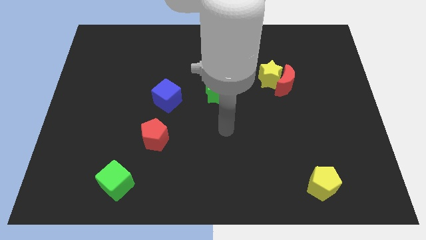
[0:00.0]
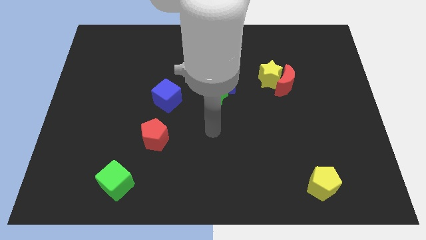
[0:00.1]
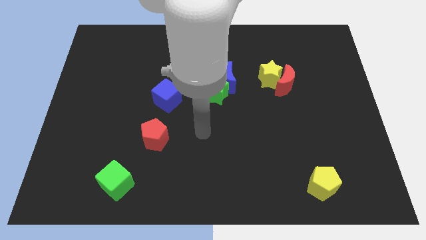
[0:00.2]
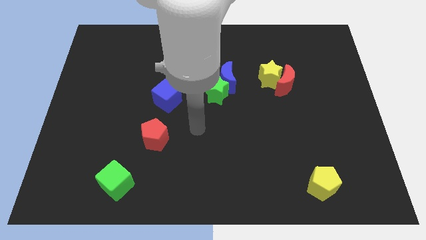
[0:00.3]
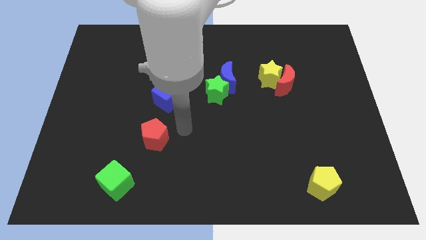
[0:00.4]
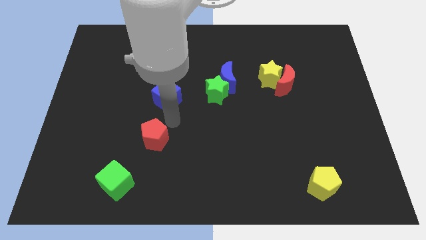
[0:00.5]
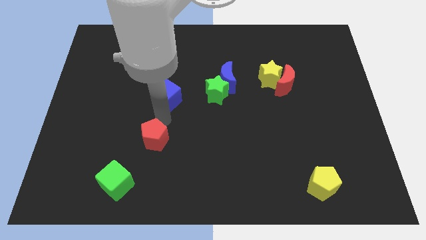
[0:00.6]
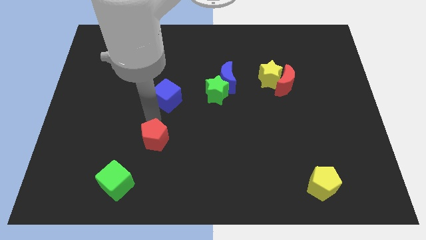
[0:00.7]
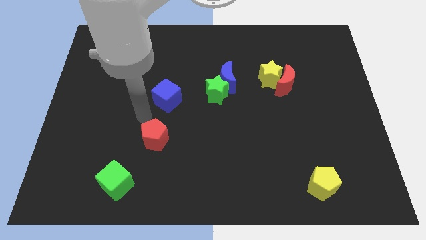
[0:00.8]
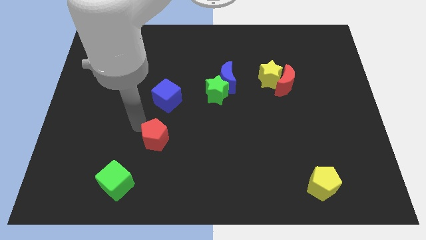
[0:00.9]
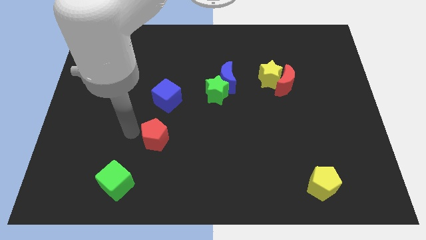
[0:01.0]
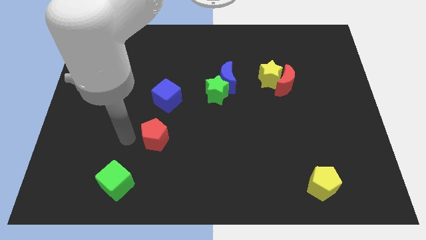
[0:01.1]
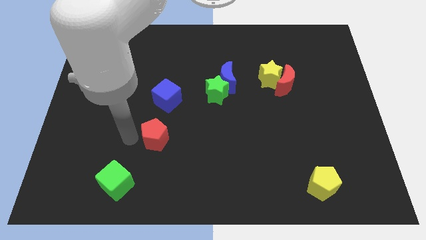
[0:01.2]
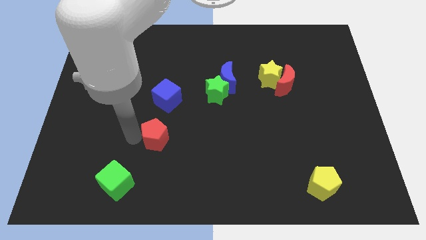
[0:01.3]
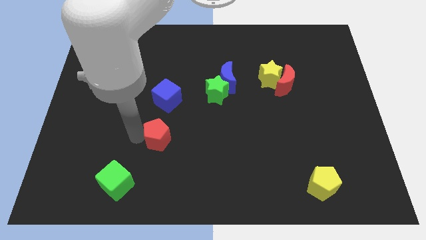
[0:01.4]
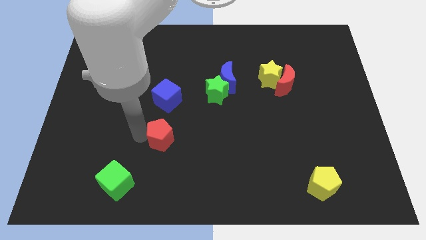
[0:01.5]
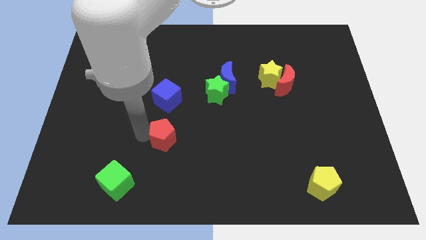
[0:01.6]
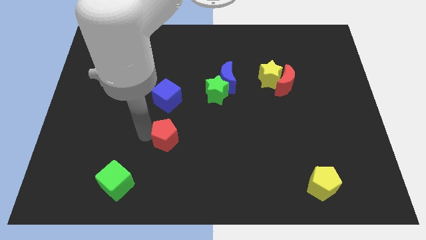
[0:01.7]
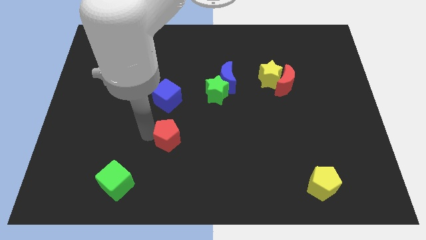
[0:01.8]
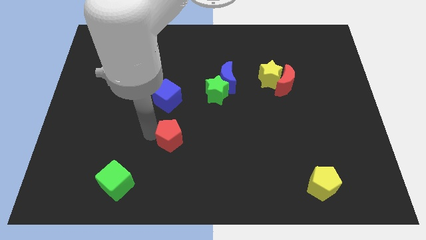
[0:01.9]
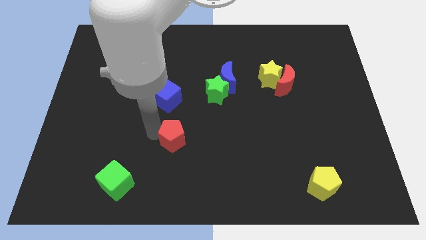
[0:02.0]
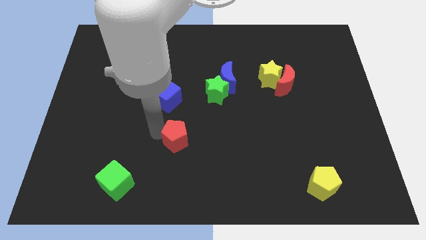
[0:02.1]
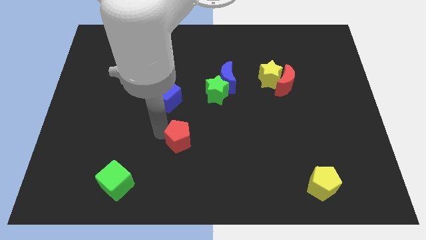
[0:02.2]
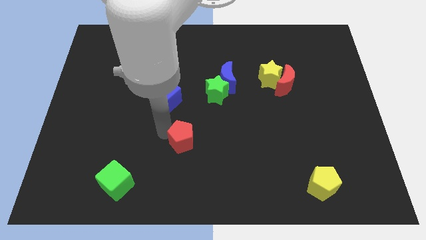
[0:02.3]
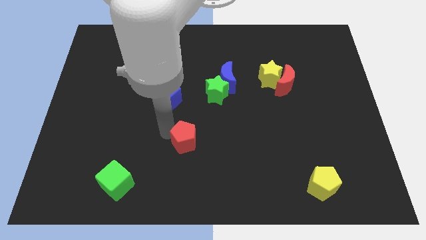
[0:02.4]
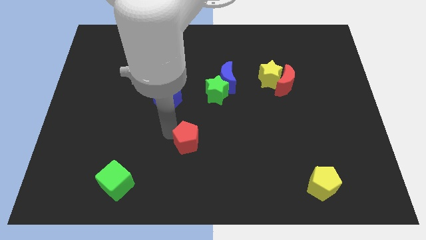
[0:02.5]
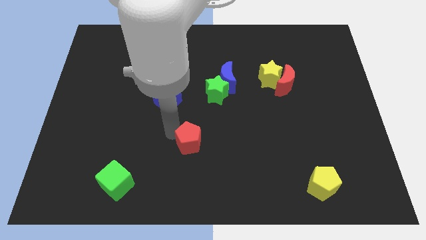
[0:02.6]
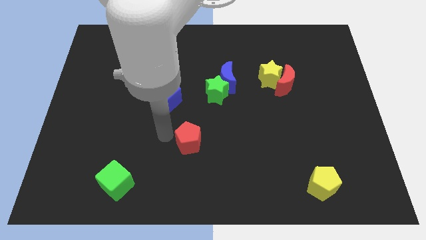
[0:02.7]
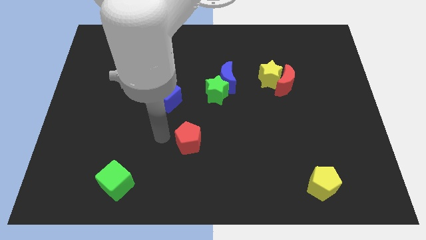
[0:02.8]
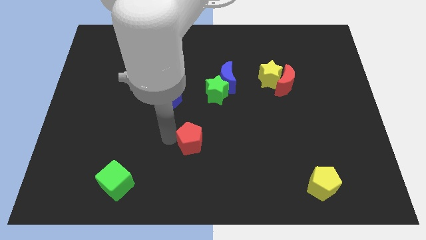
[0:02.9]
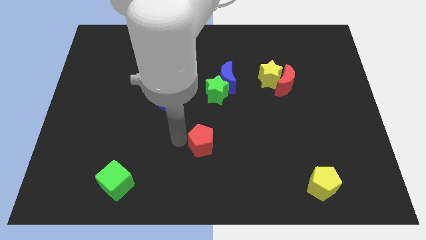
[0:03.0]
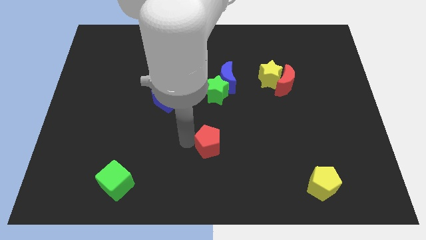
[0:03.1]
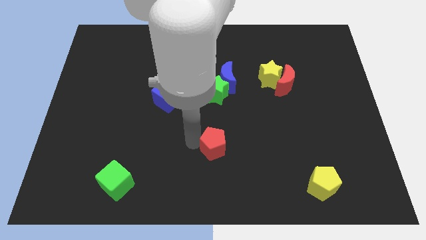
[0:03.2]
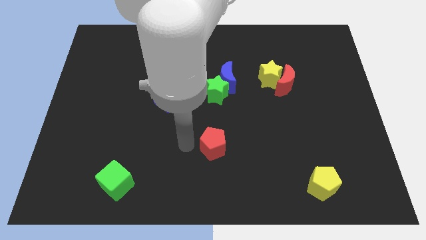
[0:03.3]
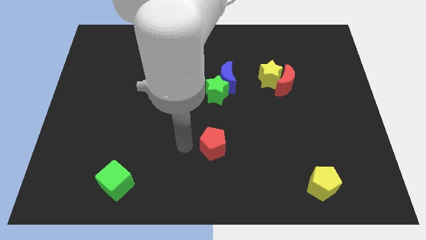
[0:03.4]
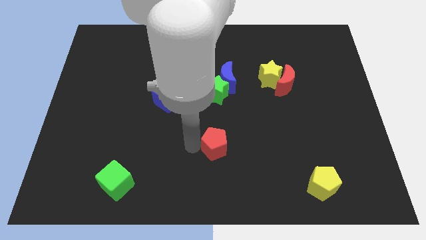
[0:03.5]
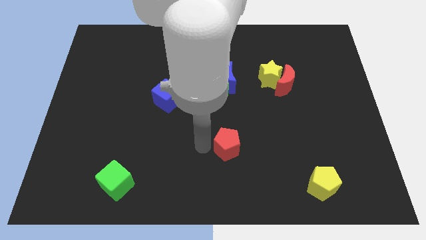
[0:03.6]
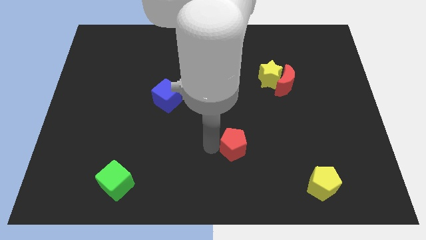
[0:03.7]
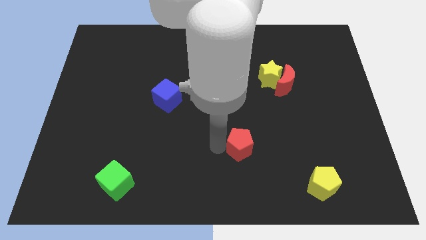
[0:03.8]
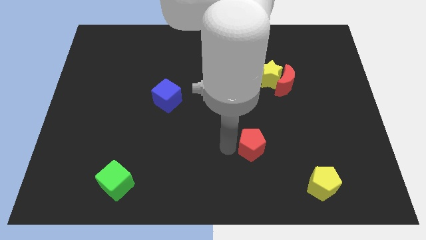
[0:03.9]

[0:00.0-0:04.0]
push the red pentagon right

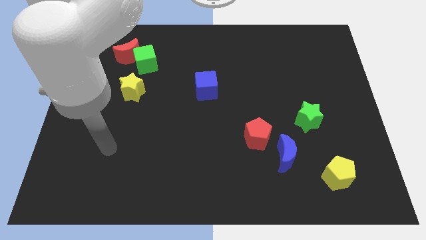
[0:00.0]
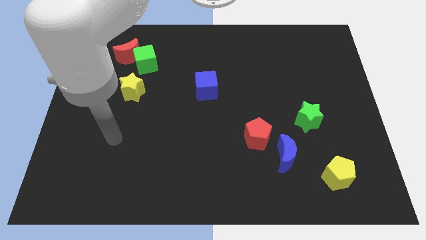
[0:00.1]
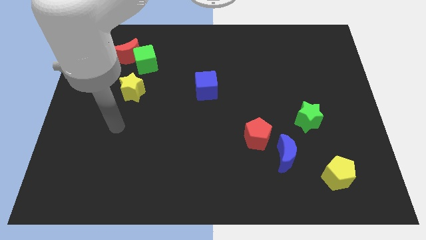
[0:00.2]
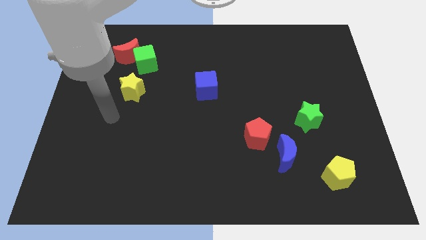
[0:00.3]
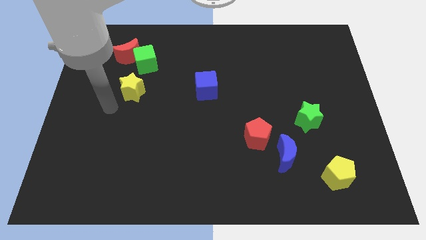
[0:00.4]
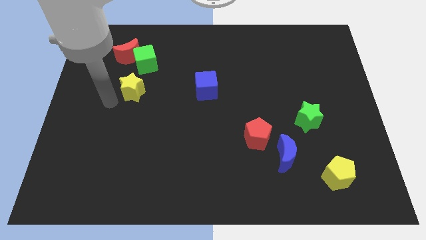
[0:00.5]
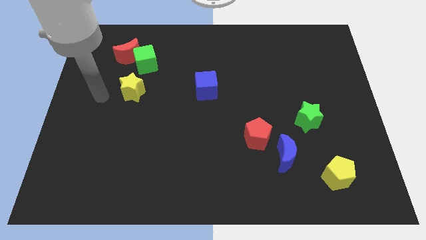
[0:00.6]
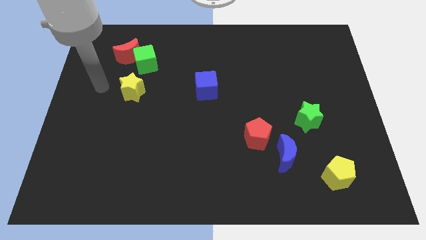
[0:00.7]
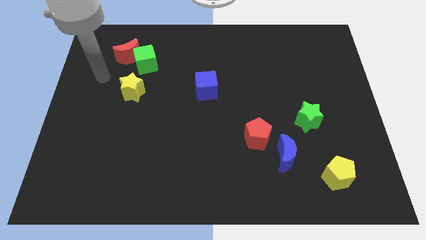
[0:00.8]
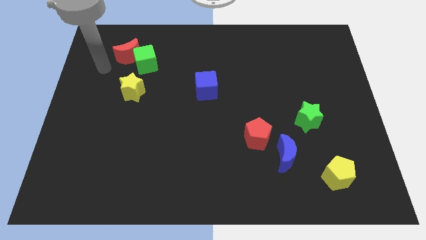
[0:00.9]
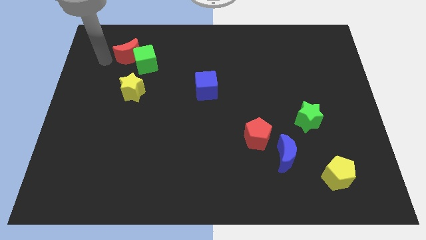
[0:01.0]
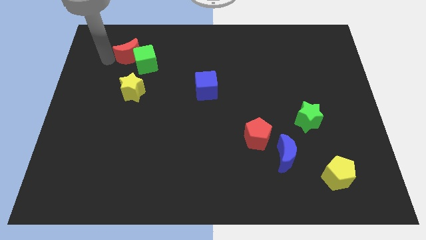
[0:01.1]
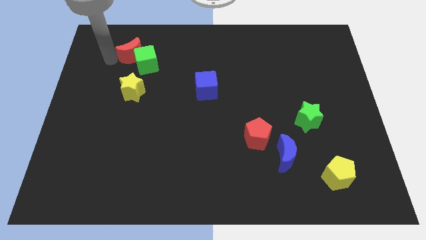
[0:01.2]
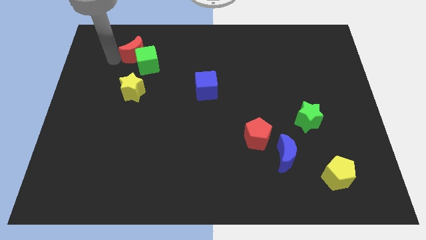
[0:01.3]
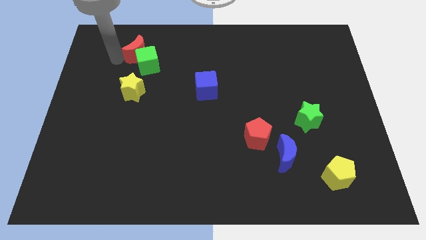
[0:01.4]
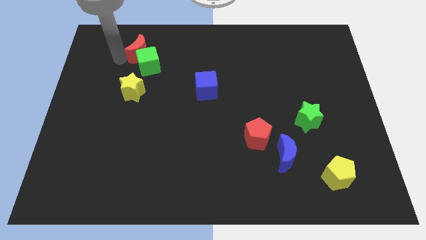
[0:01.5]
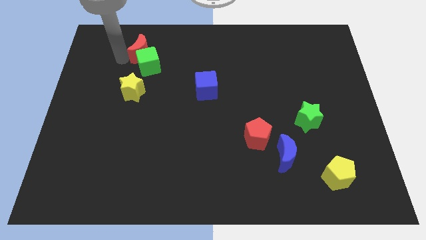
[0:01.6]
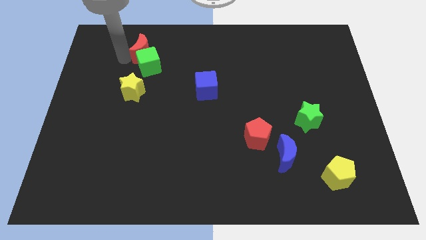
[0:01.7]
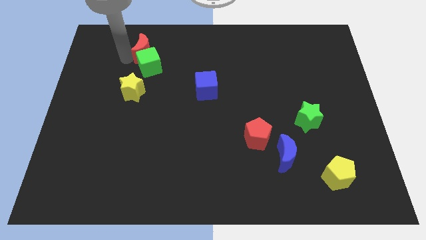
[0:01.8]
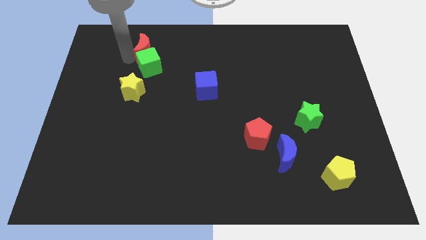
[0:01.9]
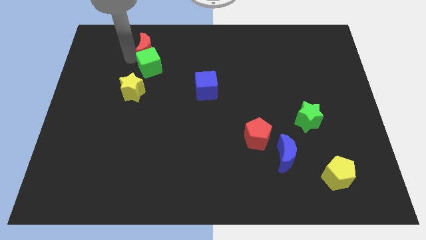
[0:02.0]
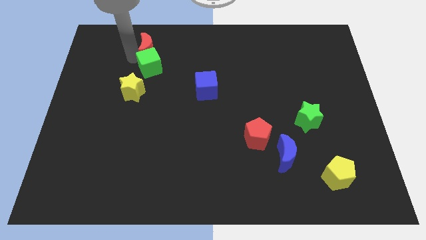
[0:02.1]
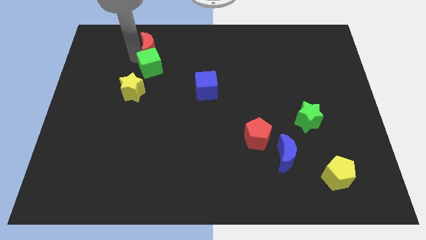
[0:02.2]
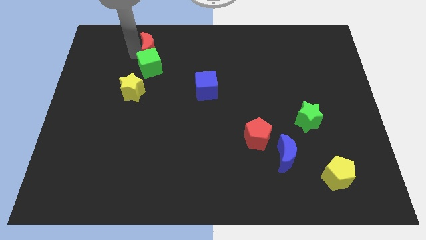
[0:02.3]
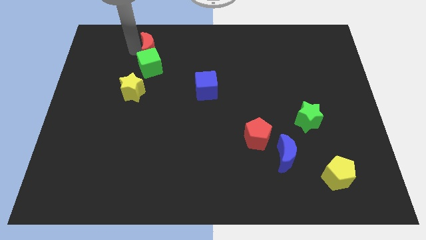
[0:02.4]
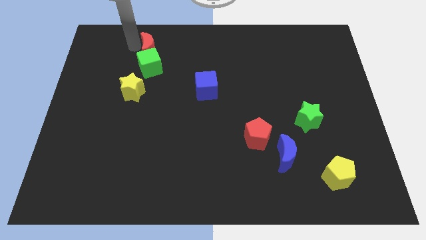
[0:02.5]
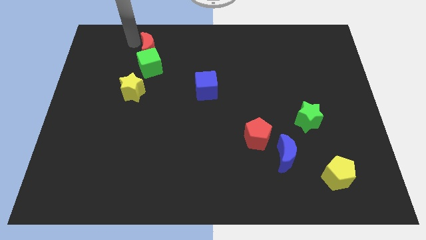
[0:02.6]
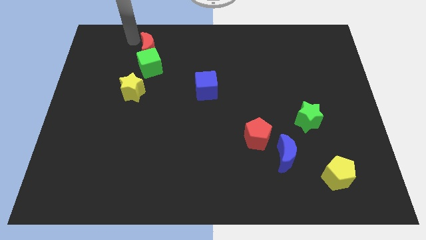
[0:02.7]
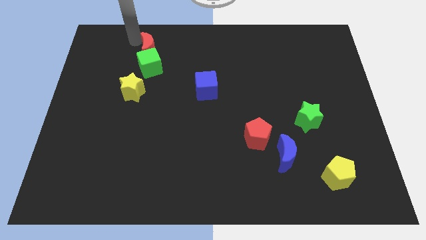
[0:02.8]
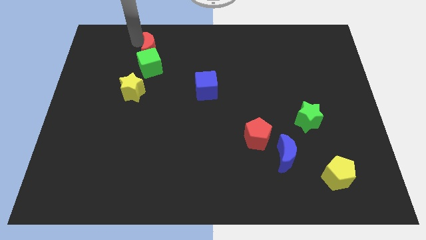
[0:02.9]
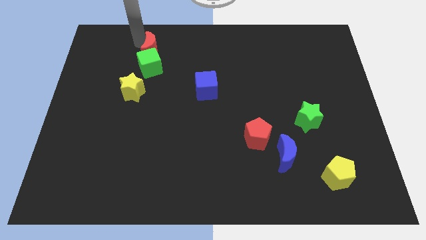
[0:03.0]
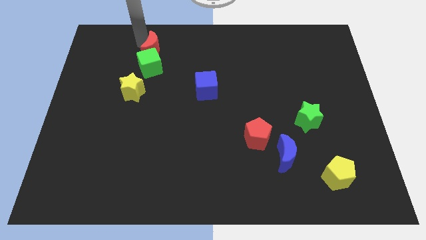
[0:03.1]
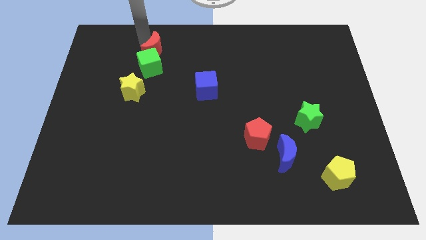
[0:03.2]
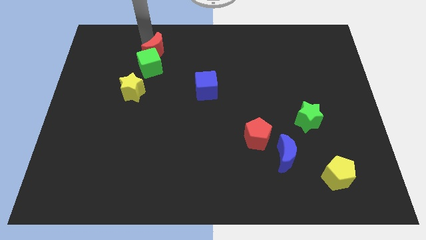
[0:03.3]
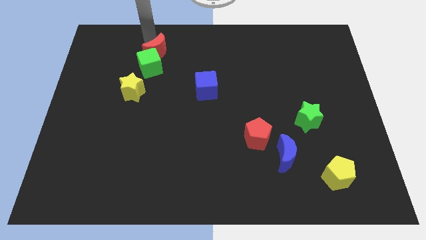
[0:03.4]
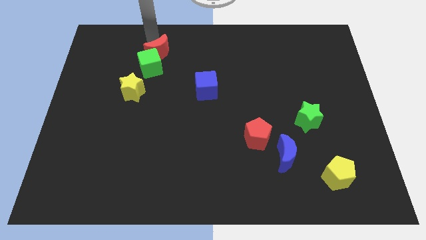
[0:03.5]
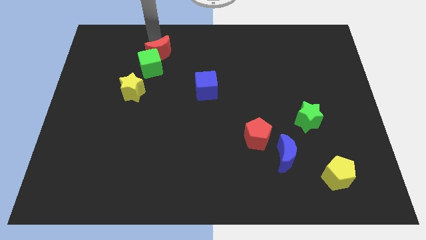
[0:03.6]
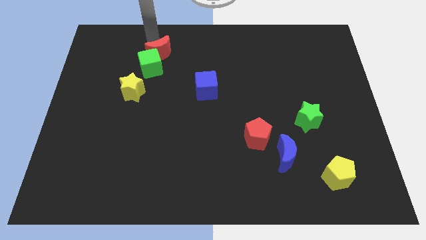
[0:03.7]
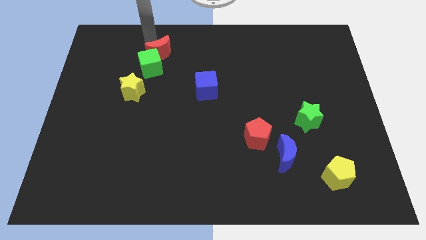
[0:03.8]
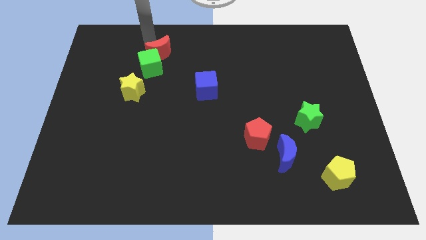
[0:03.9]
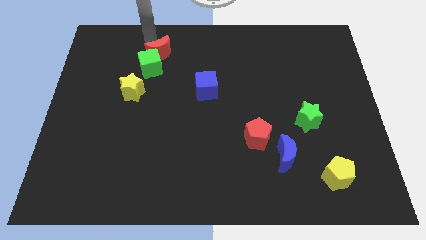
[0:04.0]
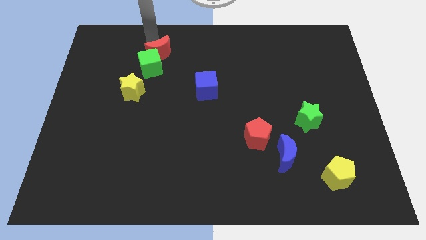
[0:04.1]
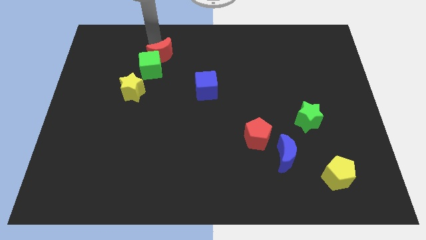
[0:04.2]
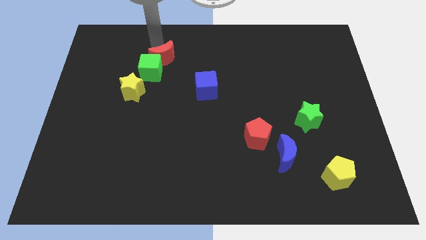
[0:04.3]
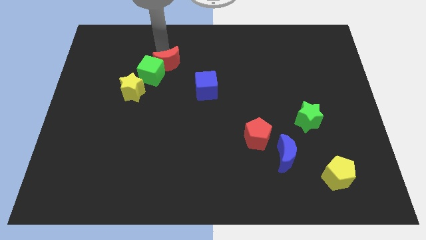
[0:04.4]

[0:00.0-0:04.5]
slightly push the red moon down and right diagonally
